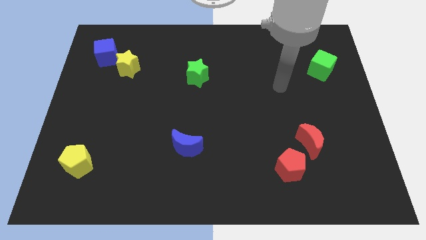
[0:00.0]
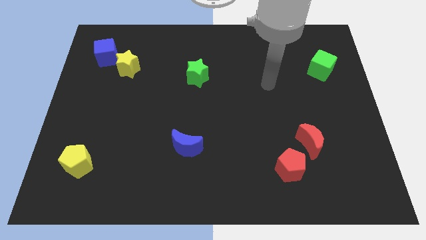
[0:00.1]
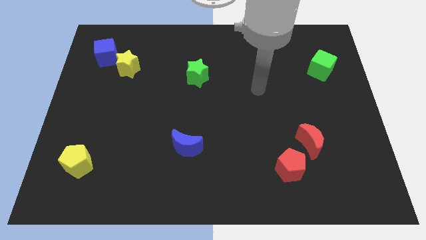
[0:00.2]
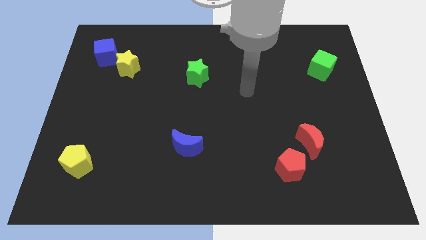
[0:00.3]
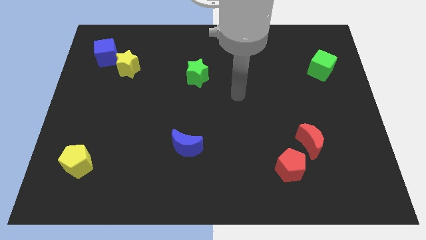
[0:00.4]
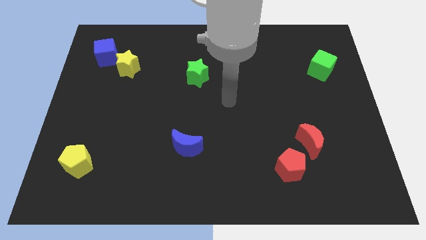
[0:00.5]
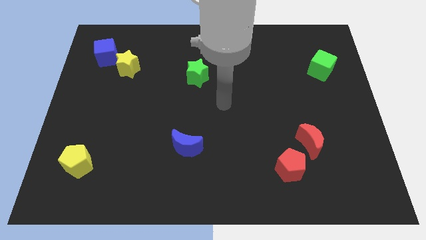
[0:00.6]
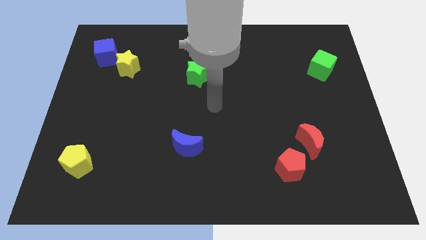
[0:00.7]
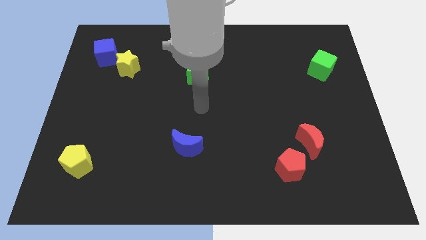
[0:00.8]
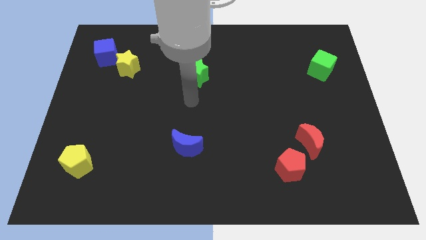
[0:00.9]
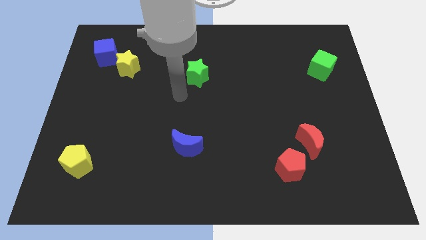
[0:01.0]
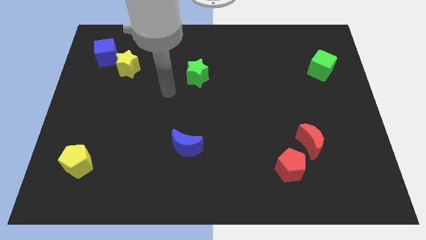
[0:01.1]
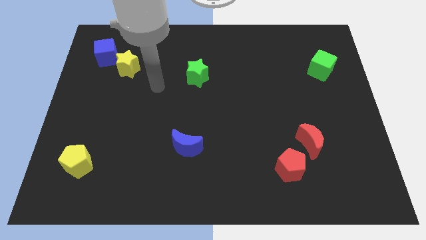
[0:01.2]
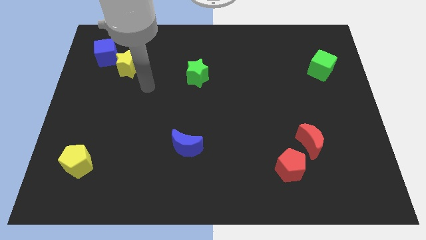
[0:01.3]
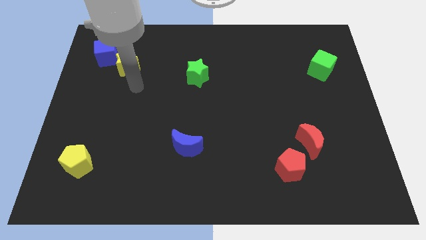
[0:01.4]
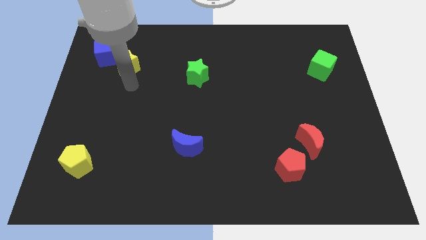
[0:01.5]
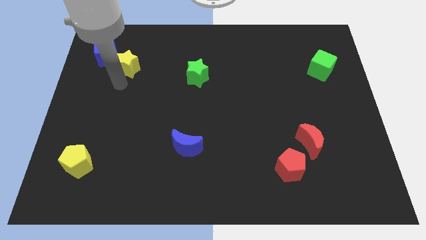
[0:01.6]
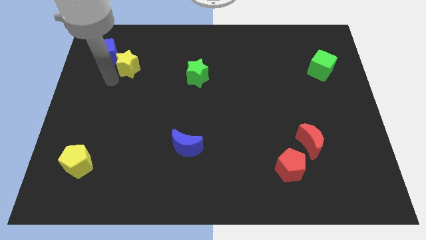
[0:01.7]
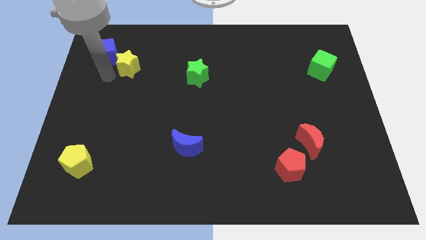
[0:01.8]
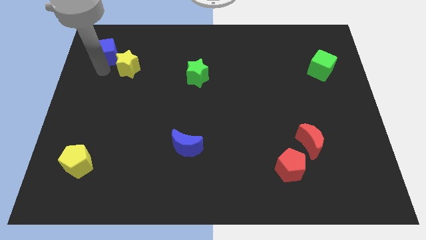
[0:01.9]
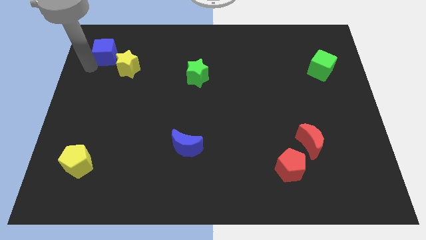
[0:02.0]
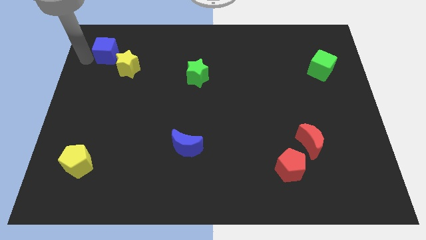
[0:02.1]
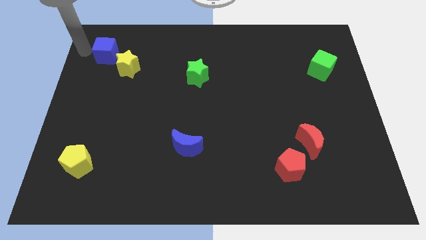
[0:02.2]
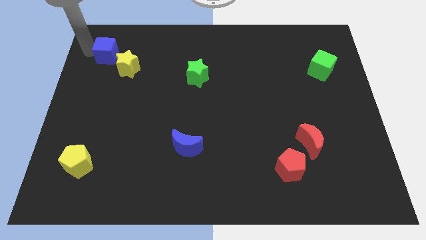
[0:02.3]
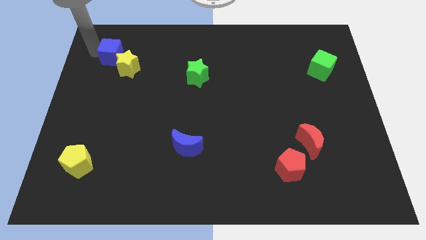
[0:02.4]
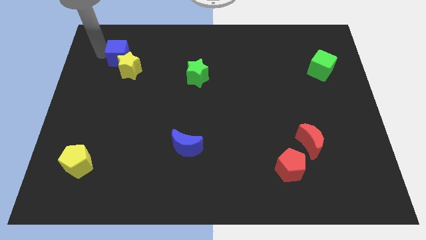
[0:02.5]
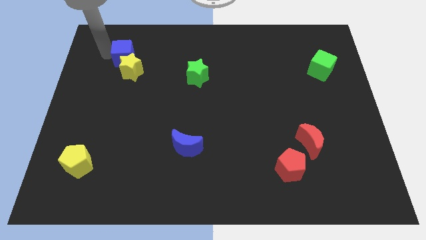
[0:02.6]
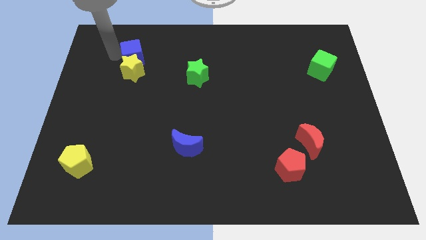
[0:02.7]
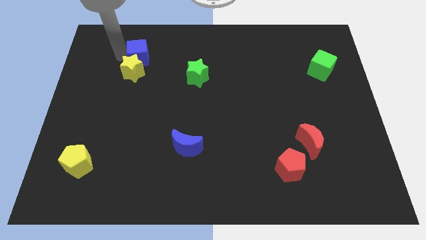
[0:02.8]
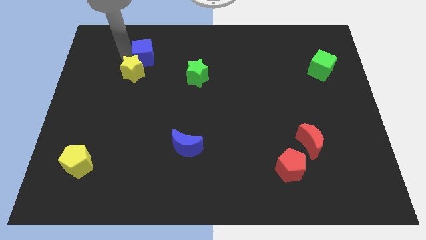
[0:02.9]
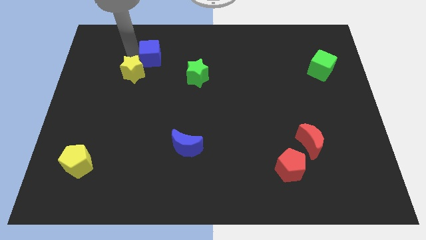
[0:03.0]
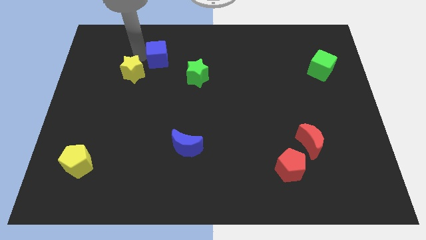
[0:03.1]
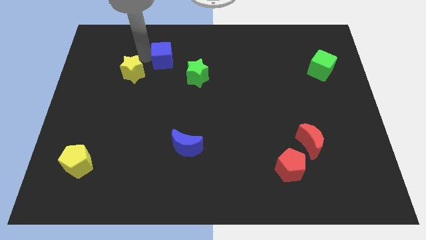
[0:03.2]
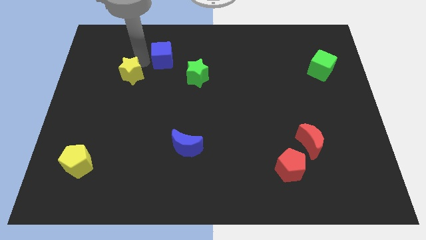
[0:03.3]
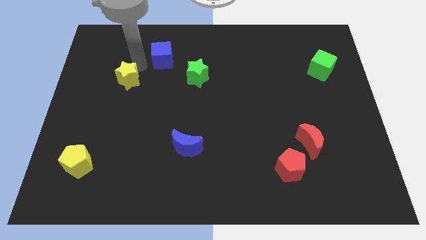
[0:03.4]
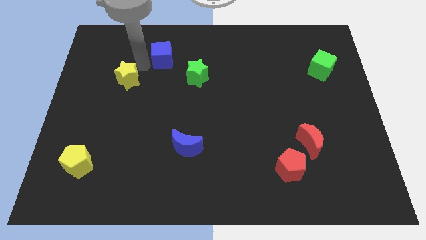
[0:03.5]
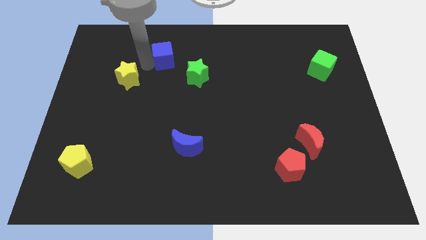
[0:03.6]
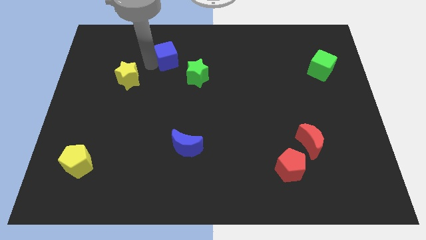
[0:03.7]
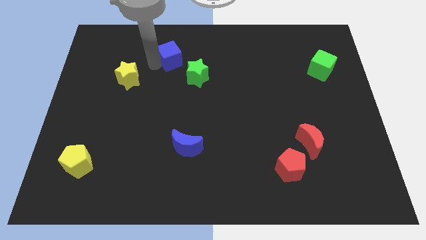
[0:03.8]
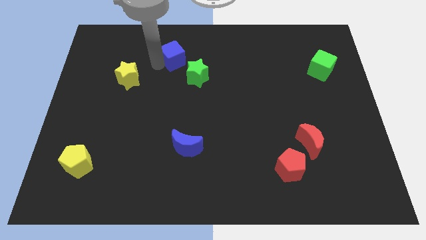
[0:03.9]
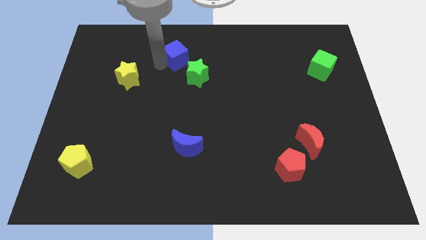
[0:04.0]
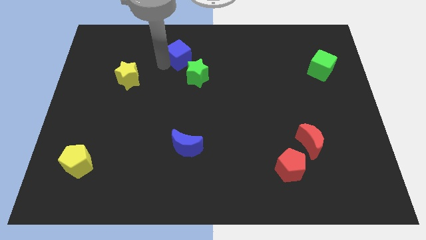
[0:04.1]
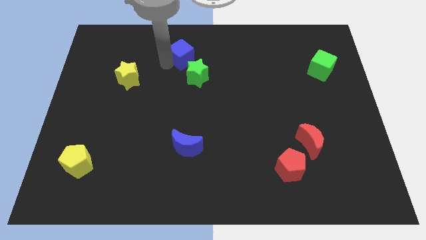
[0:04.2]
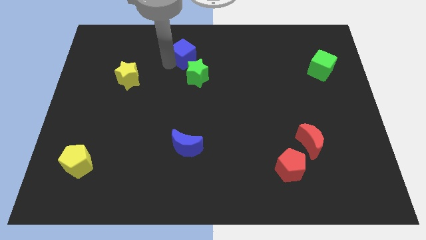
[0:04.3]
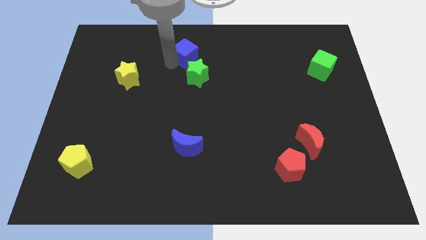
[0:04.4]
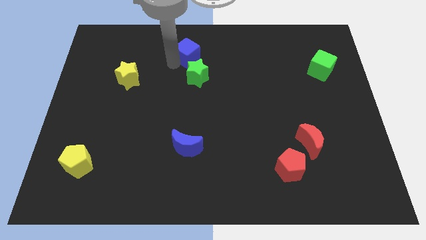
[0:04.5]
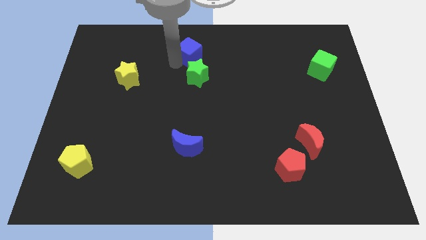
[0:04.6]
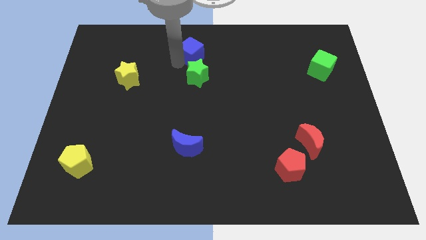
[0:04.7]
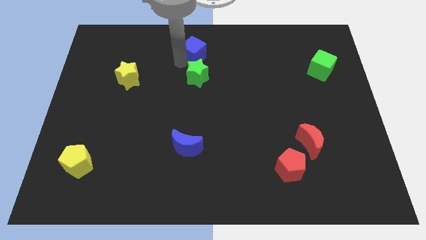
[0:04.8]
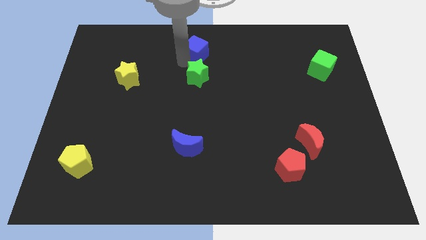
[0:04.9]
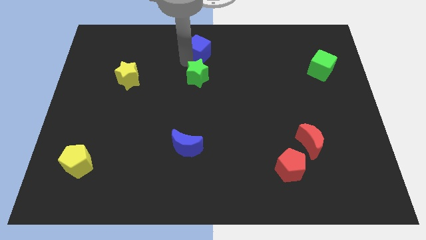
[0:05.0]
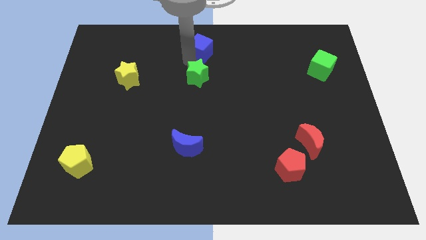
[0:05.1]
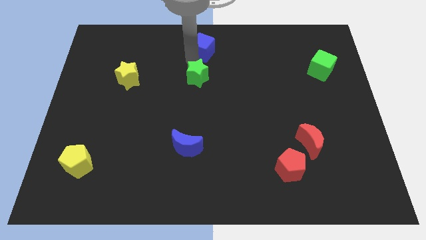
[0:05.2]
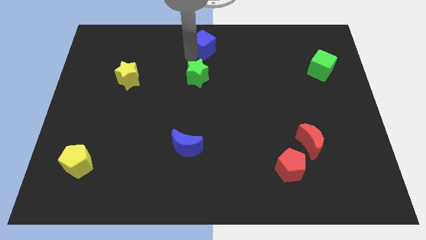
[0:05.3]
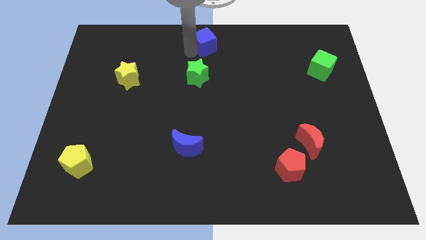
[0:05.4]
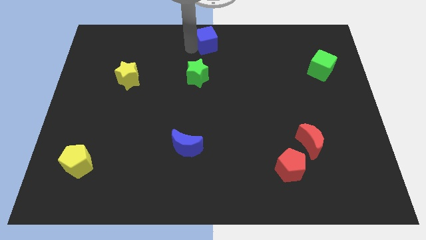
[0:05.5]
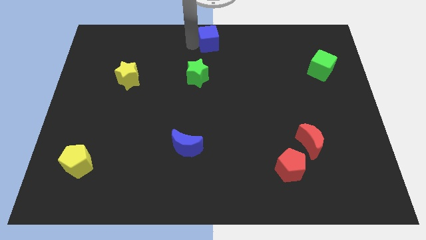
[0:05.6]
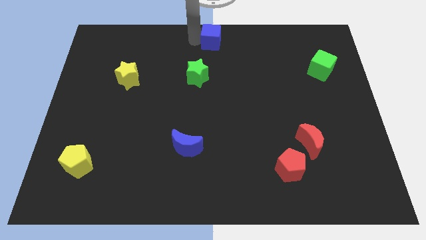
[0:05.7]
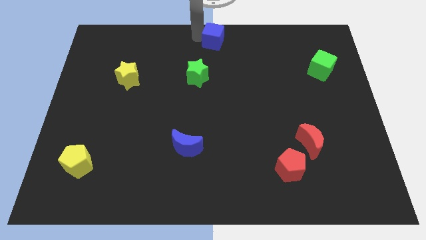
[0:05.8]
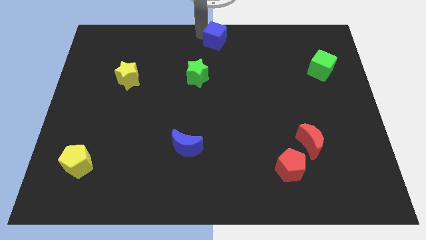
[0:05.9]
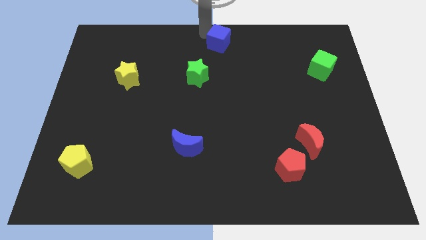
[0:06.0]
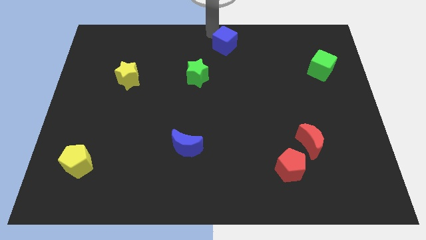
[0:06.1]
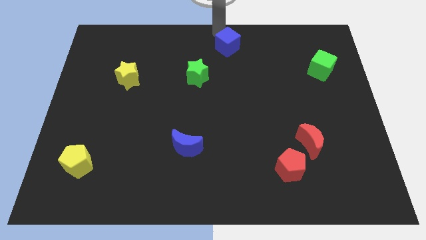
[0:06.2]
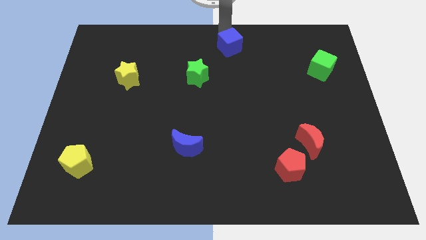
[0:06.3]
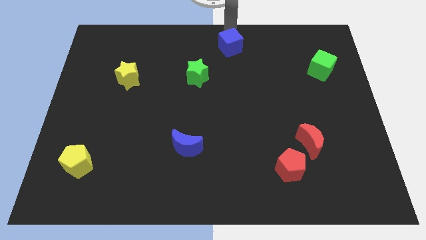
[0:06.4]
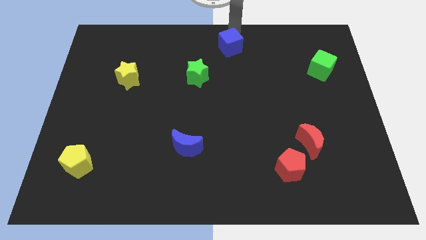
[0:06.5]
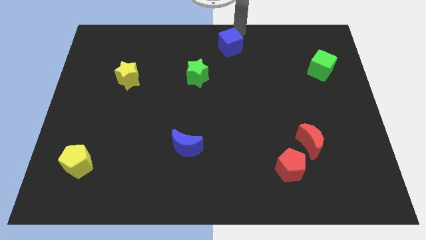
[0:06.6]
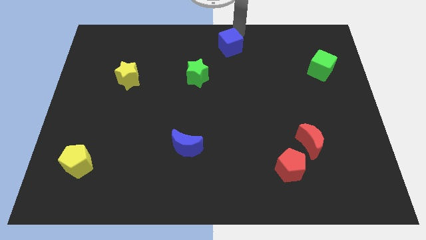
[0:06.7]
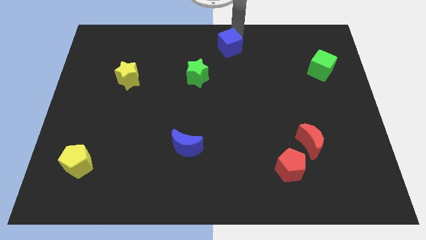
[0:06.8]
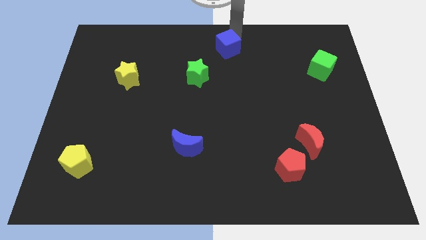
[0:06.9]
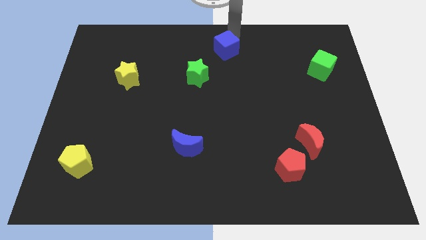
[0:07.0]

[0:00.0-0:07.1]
move the blue cube to the top right side of the green star
